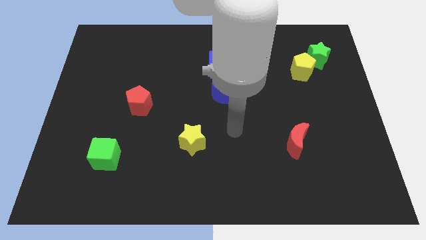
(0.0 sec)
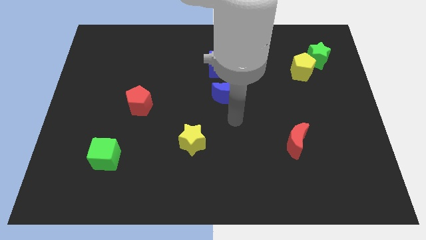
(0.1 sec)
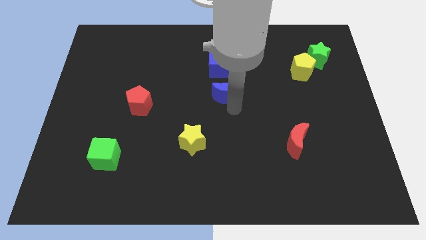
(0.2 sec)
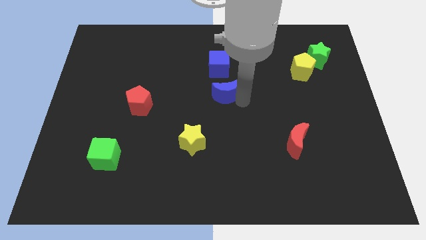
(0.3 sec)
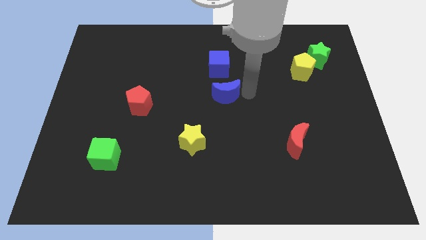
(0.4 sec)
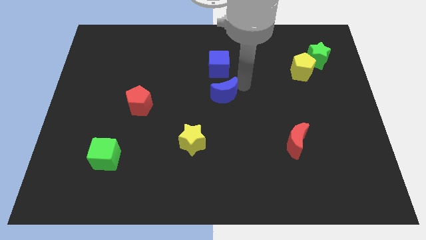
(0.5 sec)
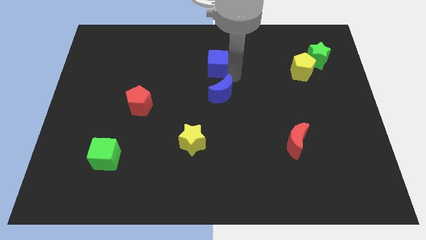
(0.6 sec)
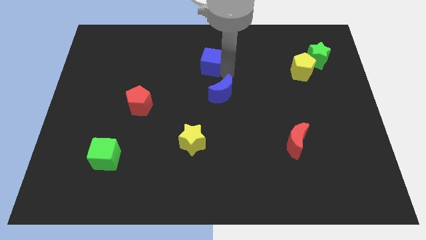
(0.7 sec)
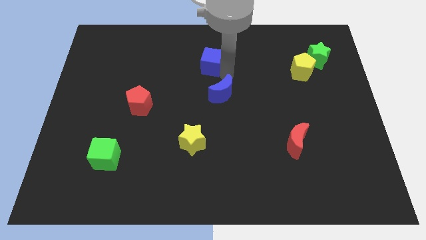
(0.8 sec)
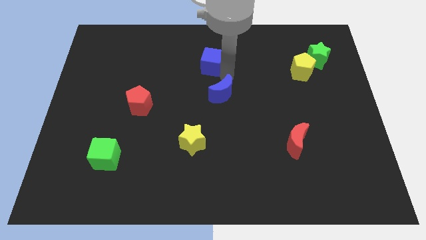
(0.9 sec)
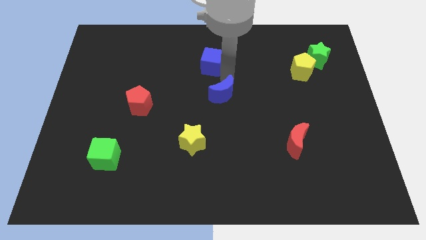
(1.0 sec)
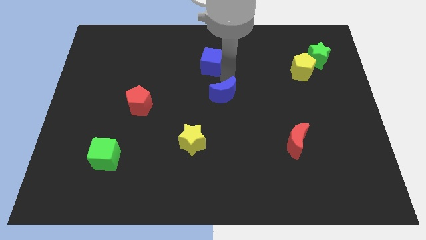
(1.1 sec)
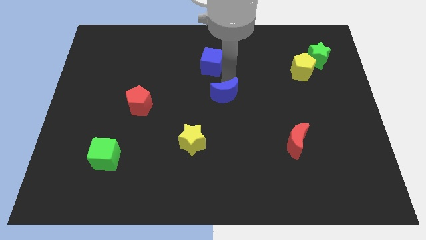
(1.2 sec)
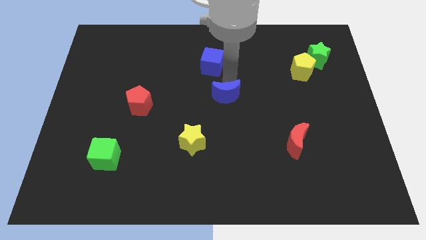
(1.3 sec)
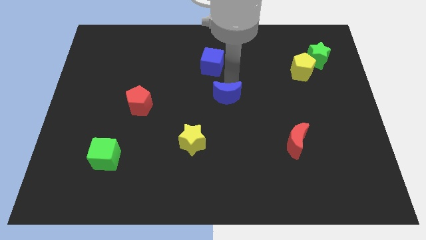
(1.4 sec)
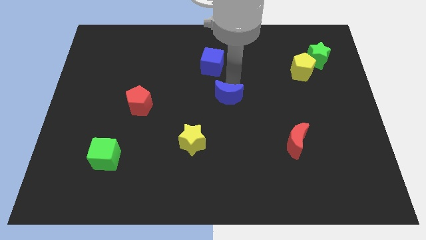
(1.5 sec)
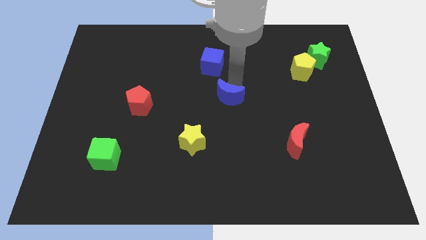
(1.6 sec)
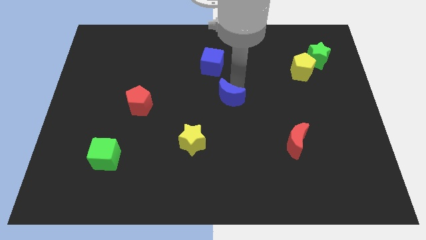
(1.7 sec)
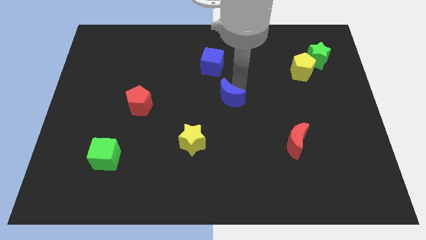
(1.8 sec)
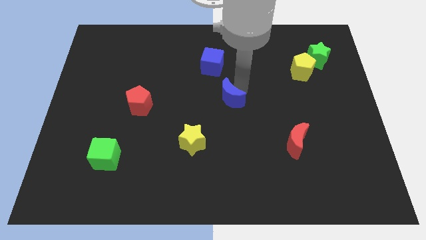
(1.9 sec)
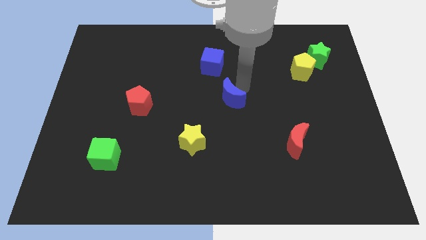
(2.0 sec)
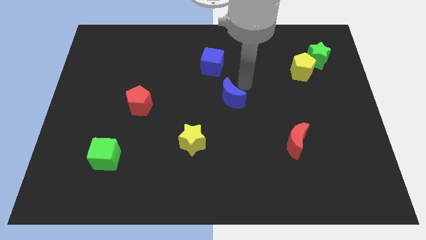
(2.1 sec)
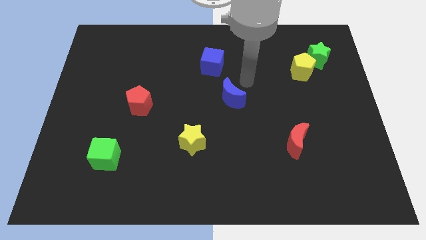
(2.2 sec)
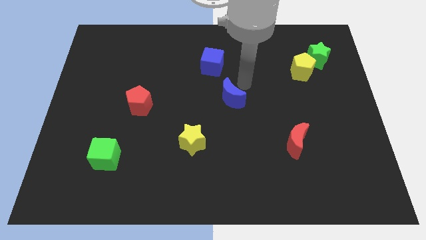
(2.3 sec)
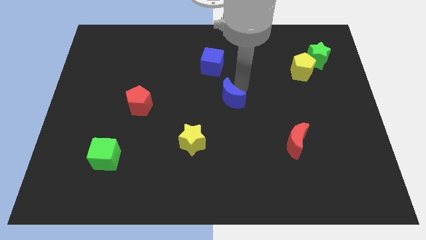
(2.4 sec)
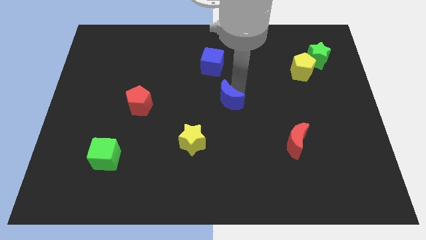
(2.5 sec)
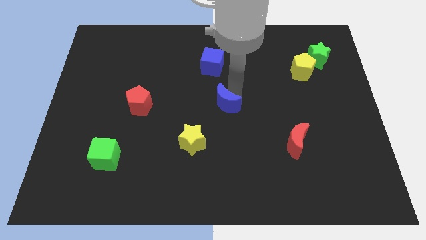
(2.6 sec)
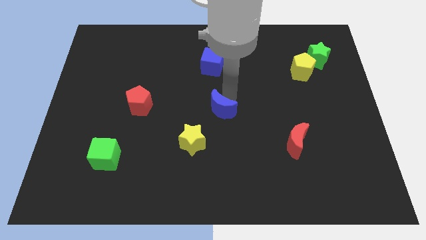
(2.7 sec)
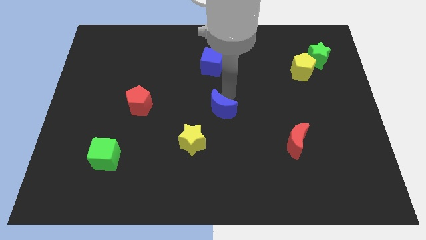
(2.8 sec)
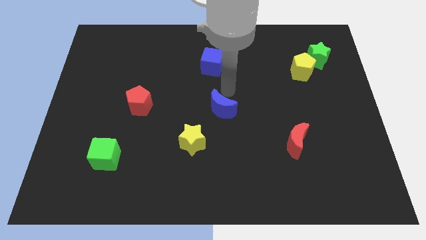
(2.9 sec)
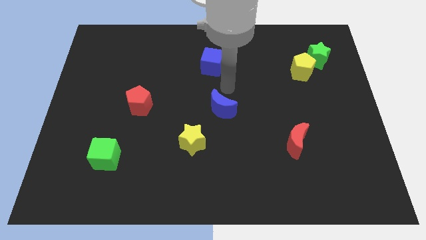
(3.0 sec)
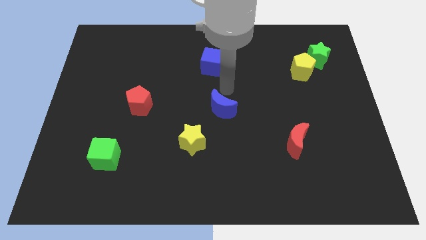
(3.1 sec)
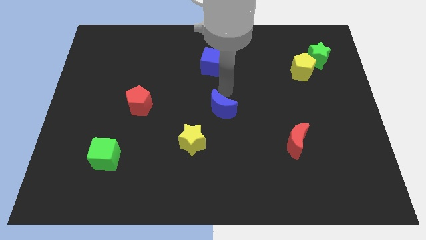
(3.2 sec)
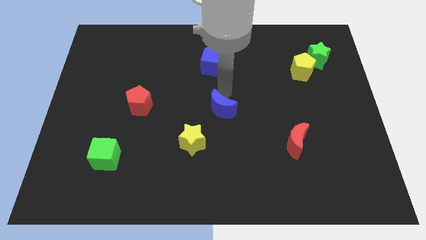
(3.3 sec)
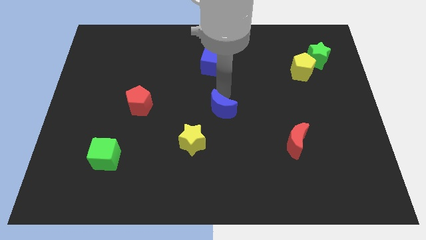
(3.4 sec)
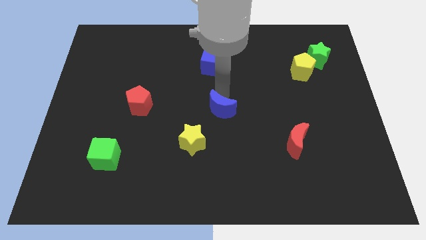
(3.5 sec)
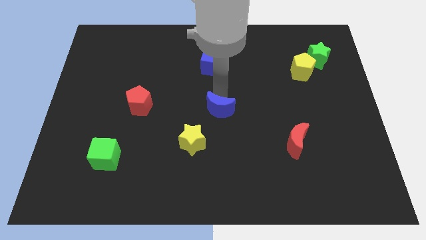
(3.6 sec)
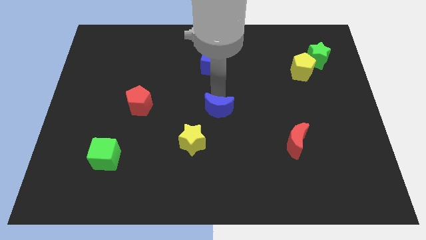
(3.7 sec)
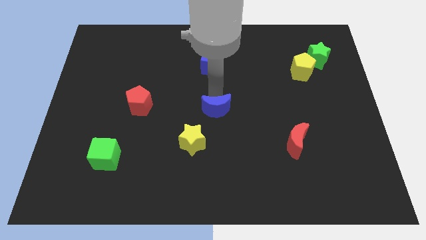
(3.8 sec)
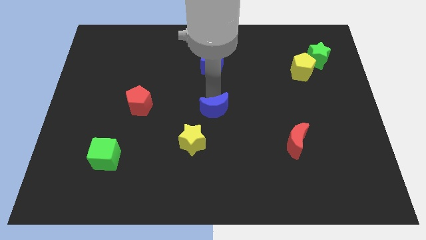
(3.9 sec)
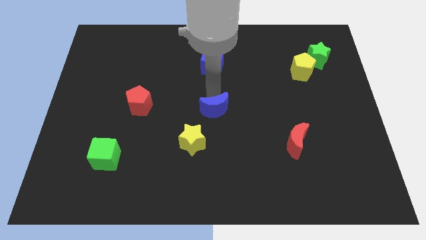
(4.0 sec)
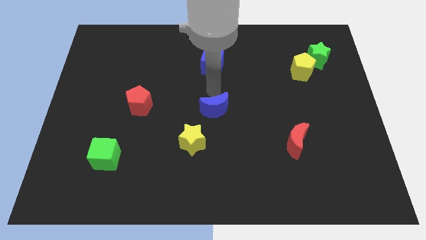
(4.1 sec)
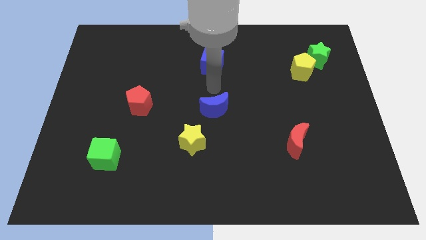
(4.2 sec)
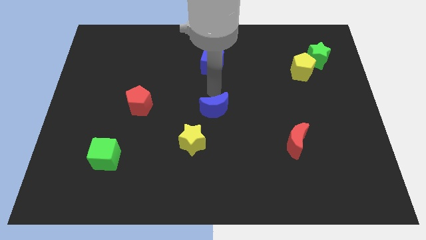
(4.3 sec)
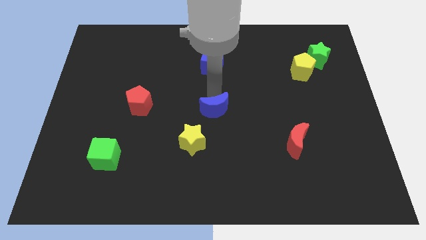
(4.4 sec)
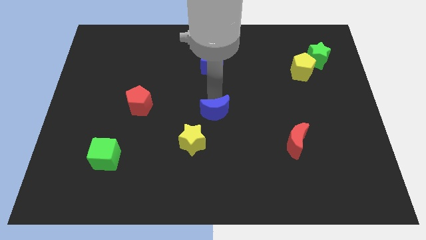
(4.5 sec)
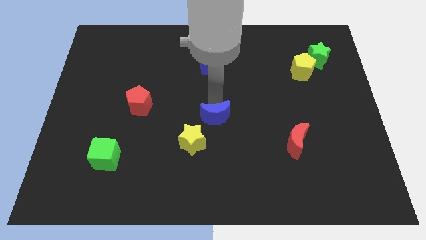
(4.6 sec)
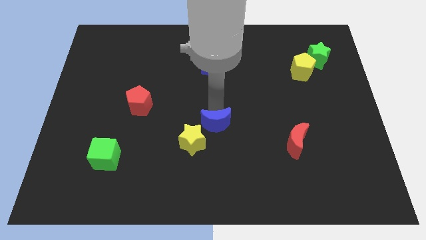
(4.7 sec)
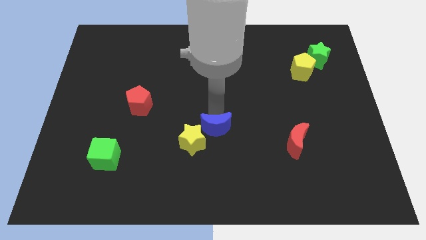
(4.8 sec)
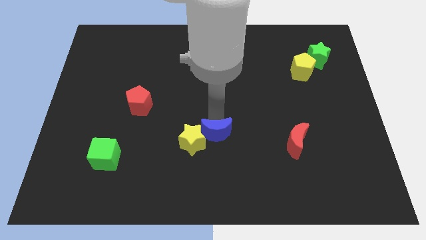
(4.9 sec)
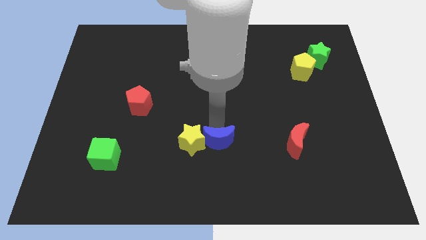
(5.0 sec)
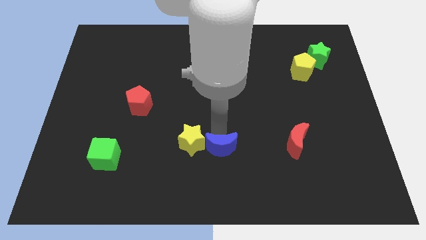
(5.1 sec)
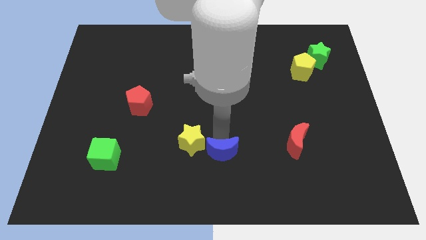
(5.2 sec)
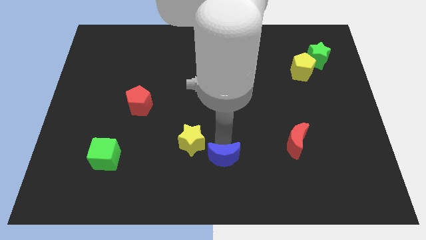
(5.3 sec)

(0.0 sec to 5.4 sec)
put the blue moon to the bottom side

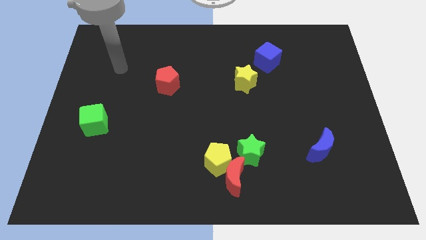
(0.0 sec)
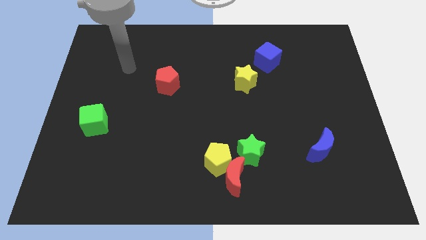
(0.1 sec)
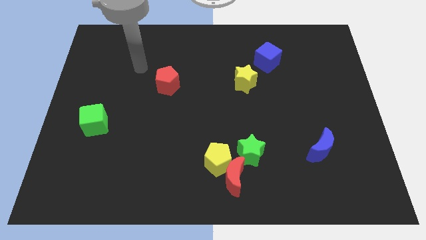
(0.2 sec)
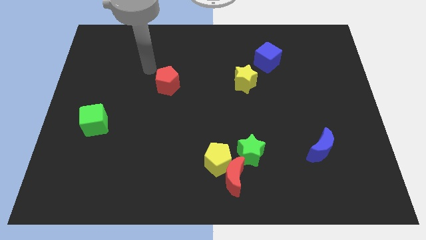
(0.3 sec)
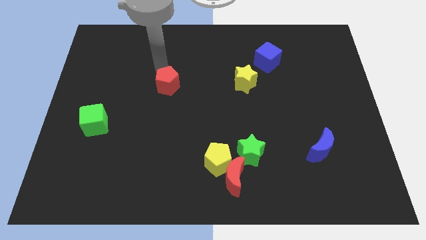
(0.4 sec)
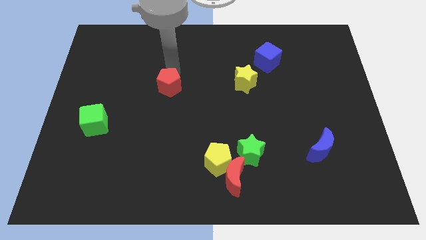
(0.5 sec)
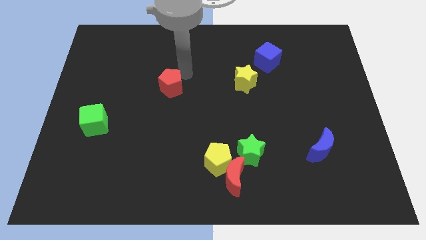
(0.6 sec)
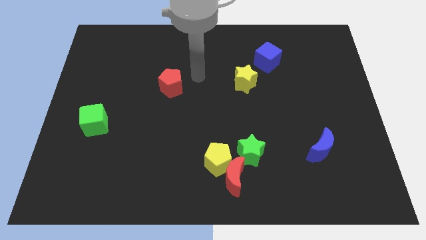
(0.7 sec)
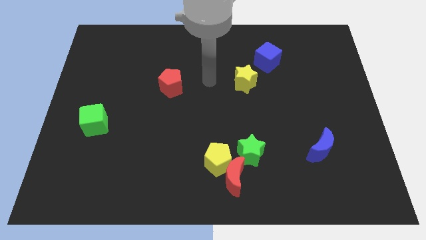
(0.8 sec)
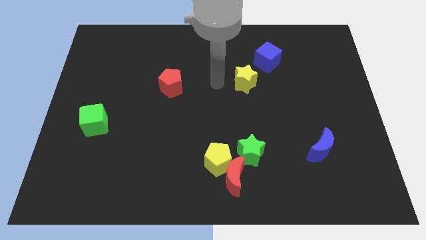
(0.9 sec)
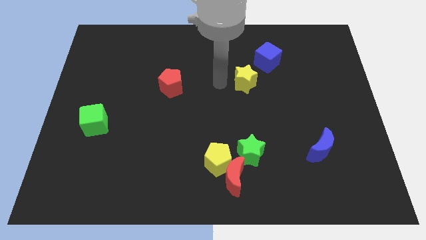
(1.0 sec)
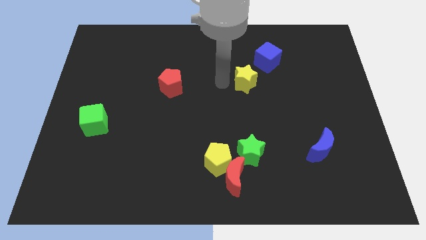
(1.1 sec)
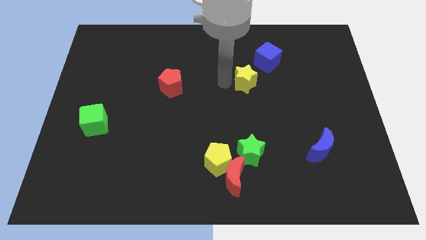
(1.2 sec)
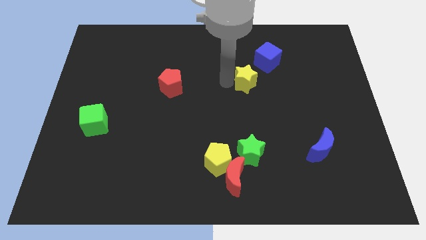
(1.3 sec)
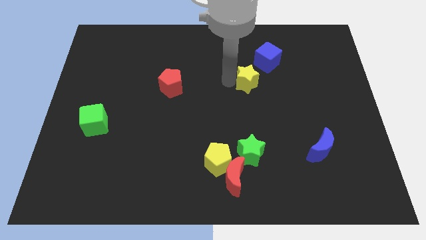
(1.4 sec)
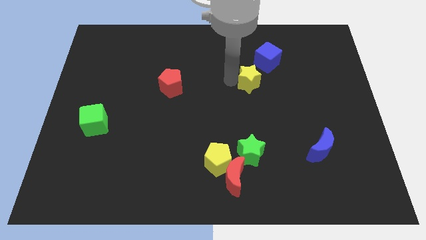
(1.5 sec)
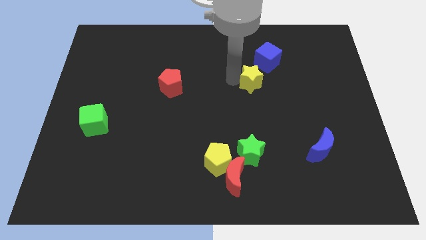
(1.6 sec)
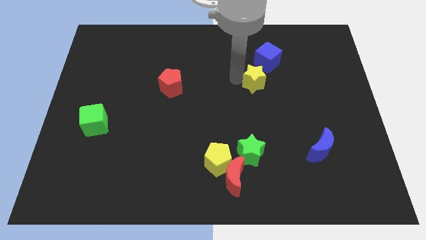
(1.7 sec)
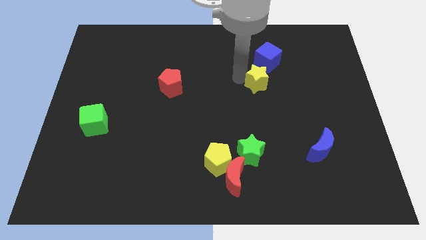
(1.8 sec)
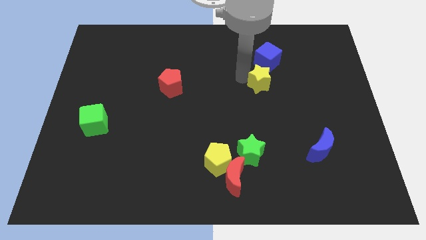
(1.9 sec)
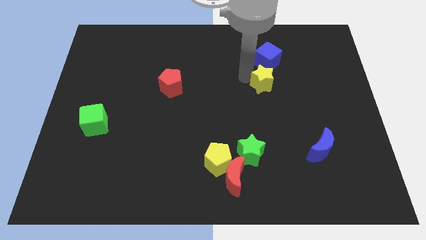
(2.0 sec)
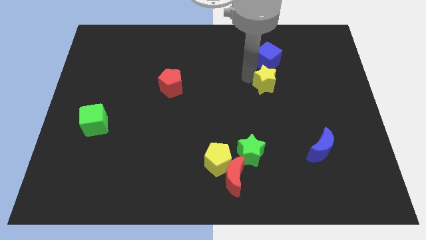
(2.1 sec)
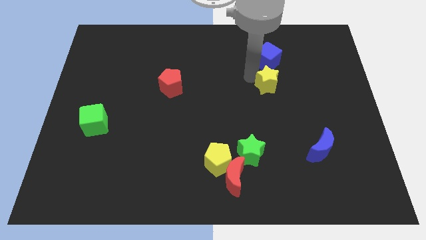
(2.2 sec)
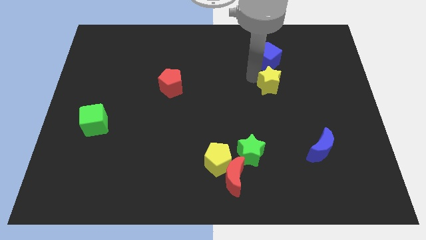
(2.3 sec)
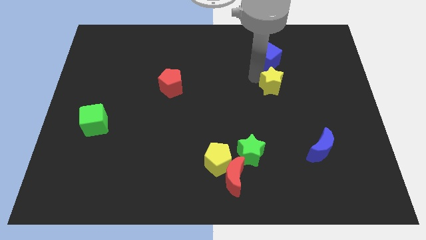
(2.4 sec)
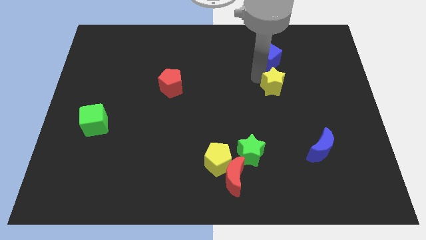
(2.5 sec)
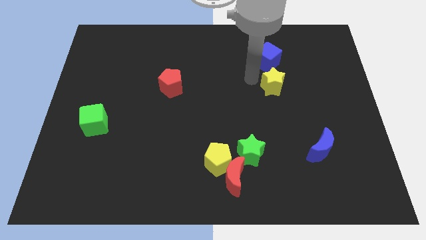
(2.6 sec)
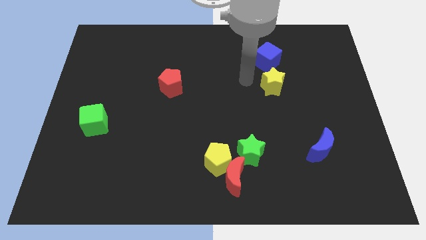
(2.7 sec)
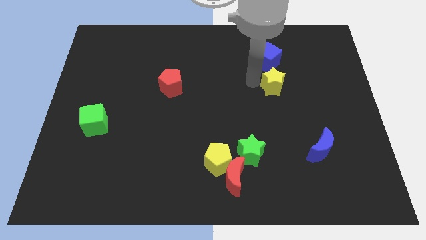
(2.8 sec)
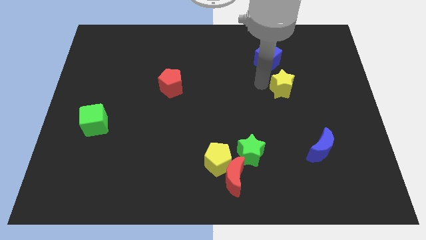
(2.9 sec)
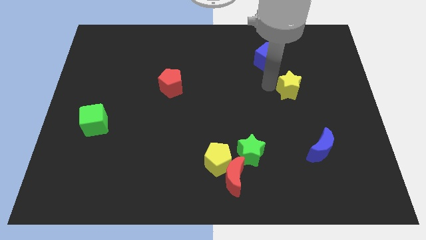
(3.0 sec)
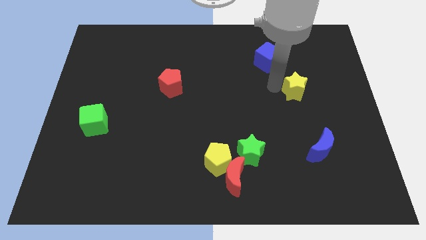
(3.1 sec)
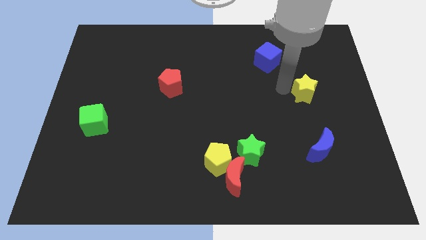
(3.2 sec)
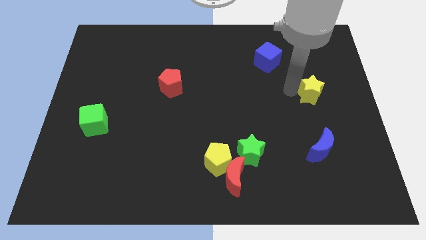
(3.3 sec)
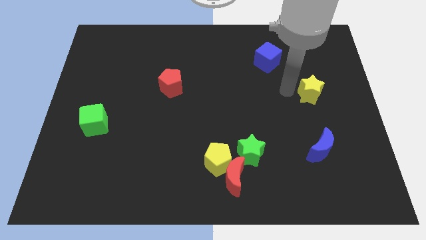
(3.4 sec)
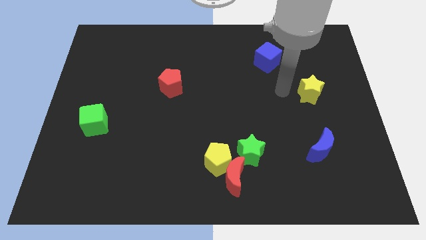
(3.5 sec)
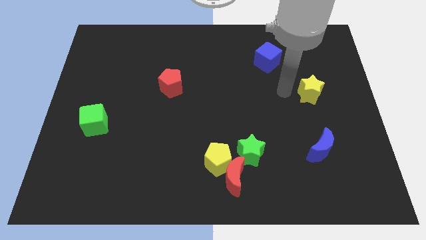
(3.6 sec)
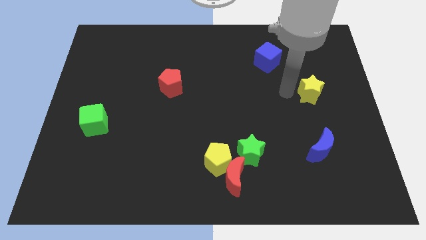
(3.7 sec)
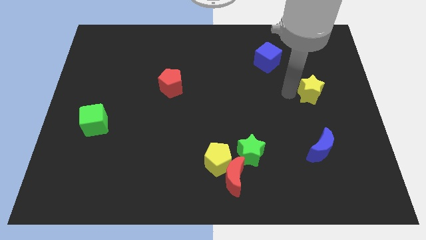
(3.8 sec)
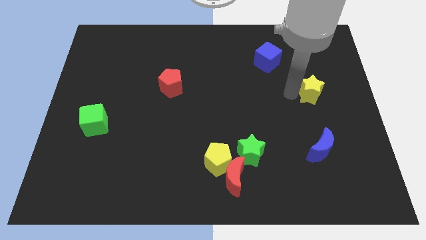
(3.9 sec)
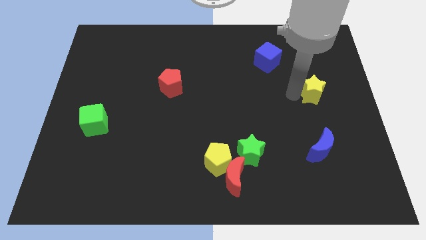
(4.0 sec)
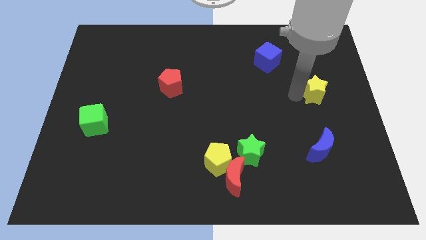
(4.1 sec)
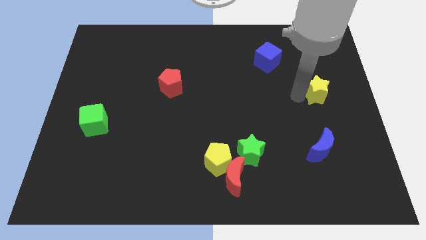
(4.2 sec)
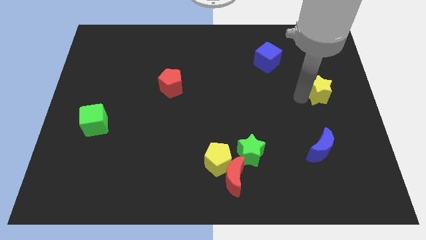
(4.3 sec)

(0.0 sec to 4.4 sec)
push the yellow star to the center right
